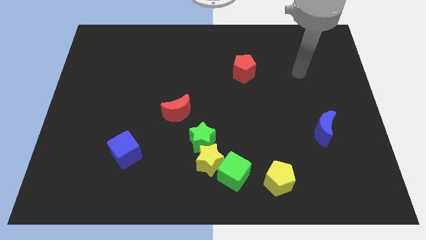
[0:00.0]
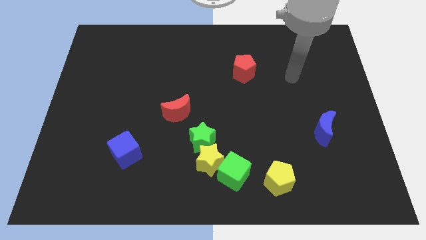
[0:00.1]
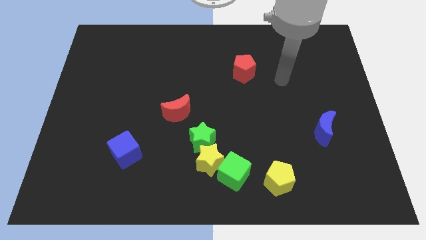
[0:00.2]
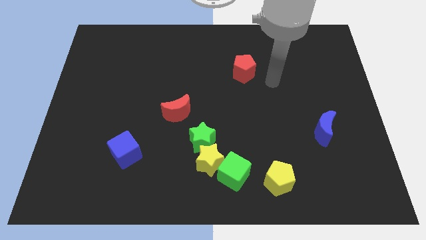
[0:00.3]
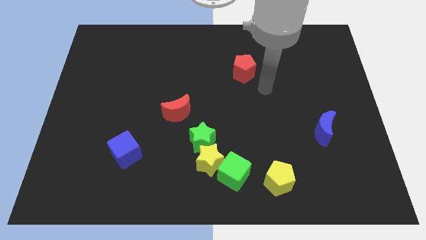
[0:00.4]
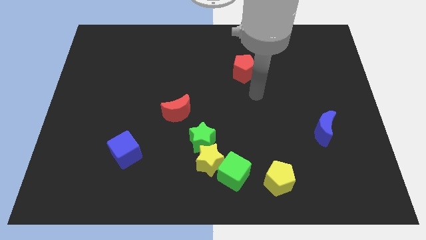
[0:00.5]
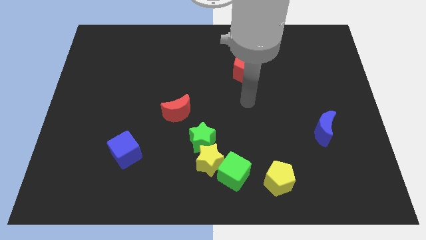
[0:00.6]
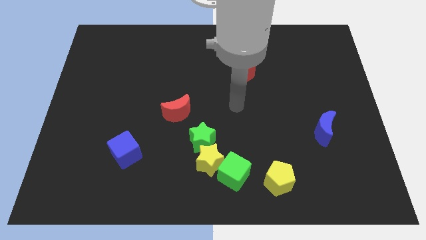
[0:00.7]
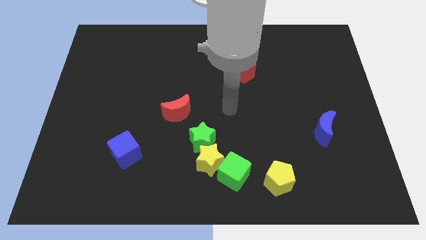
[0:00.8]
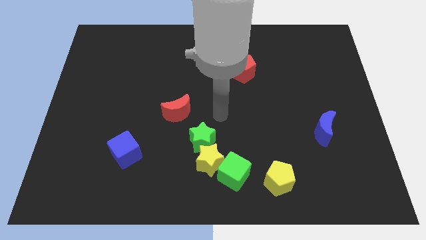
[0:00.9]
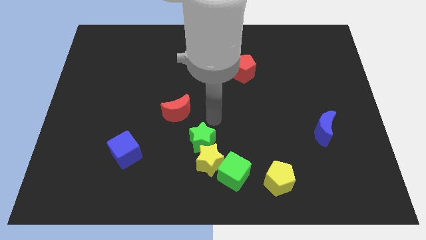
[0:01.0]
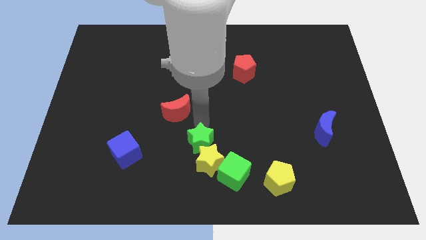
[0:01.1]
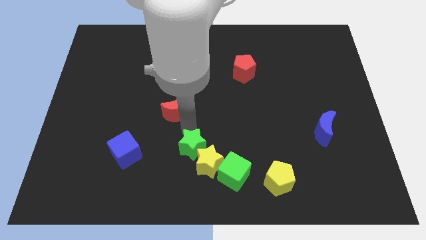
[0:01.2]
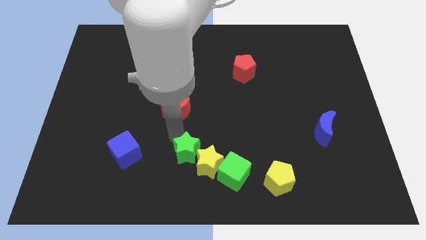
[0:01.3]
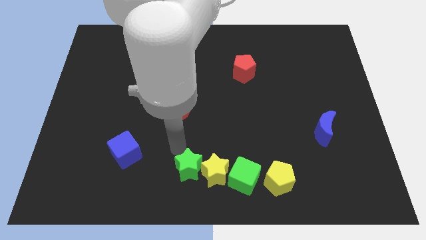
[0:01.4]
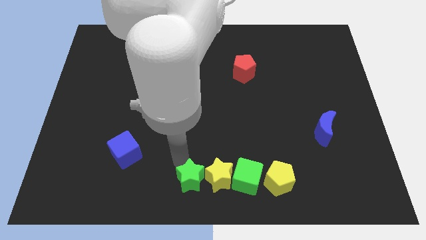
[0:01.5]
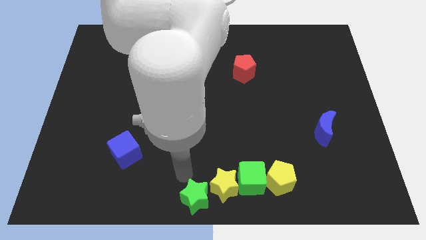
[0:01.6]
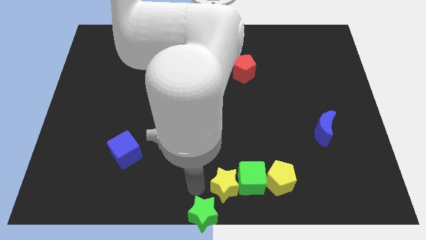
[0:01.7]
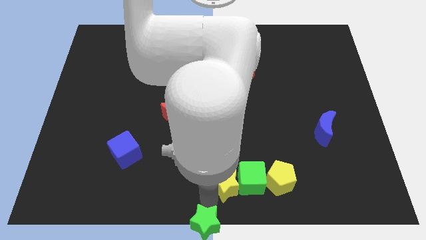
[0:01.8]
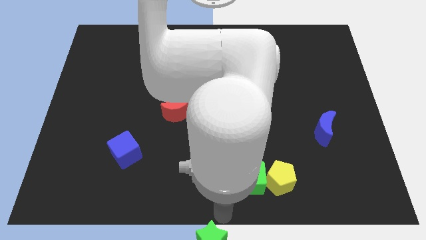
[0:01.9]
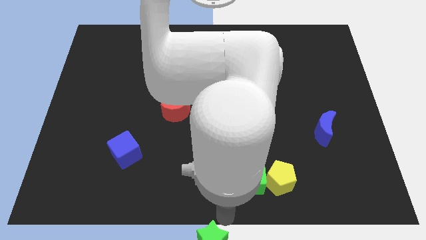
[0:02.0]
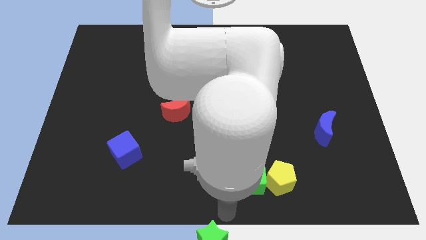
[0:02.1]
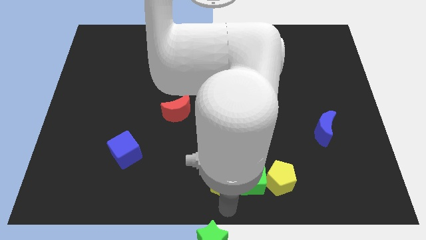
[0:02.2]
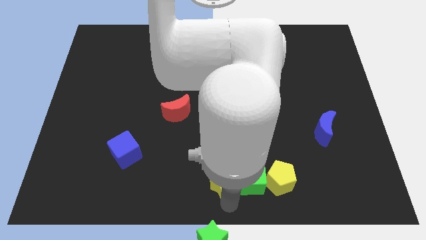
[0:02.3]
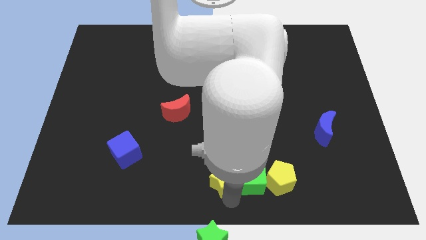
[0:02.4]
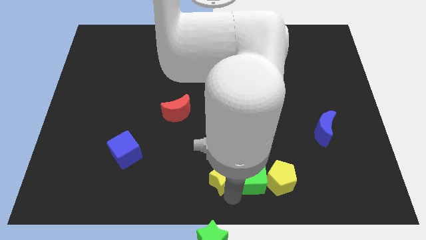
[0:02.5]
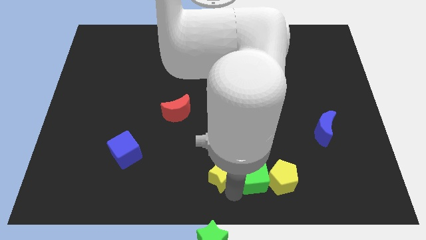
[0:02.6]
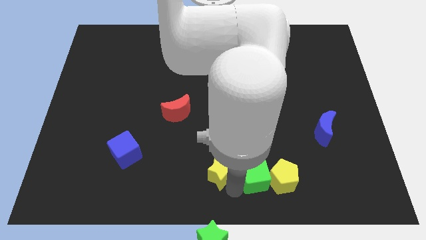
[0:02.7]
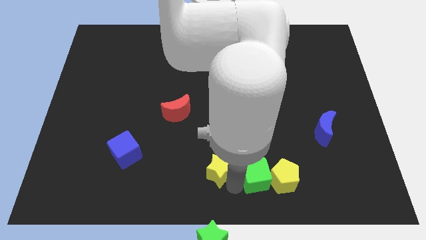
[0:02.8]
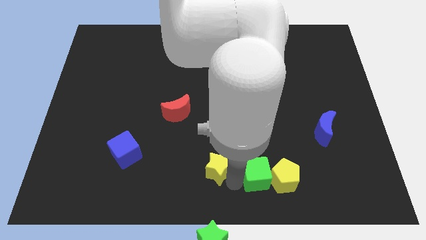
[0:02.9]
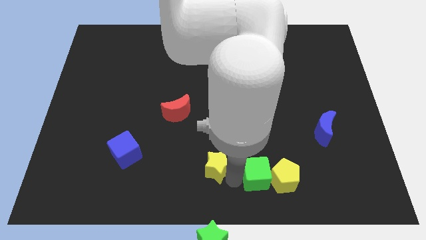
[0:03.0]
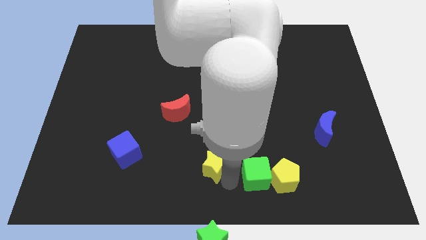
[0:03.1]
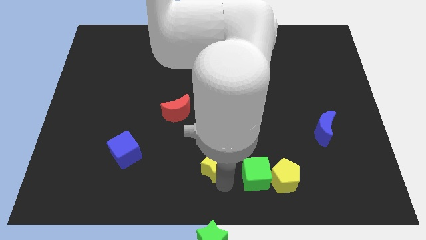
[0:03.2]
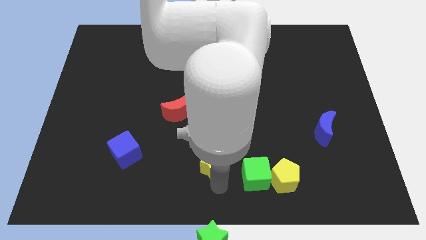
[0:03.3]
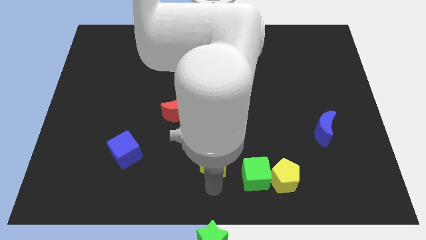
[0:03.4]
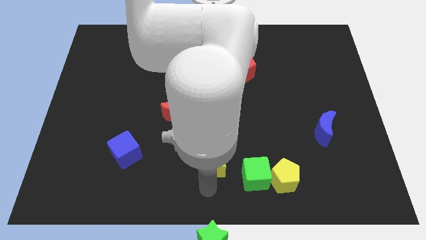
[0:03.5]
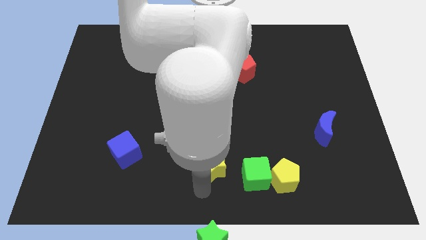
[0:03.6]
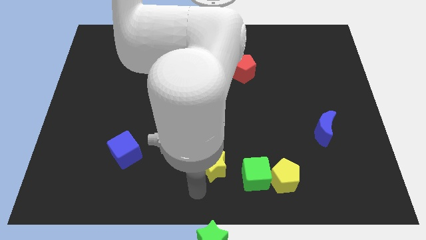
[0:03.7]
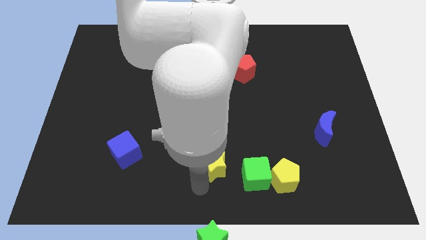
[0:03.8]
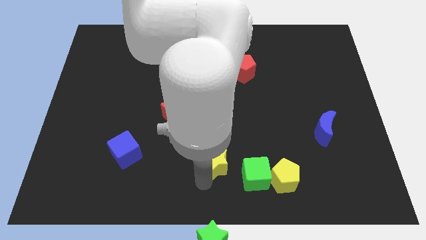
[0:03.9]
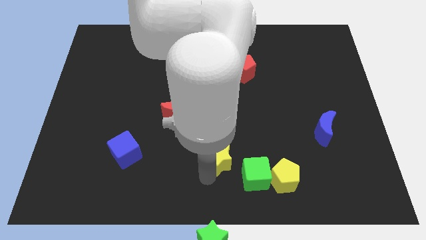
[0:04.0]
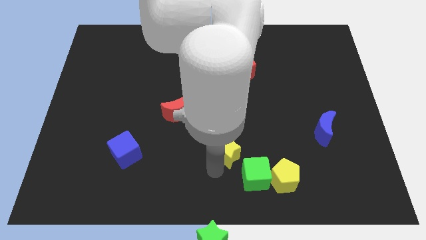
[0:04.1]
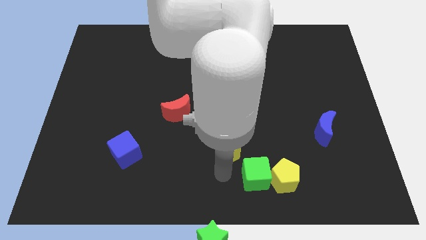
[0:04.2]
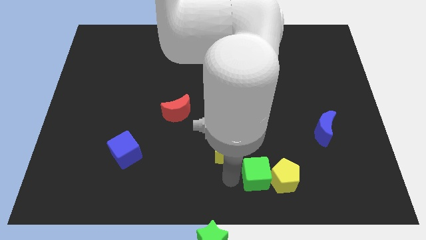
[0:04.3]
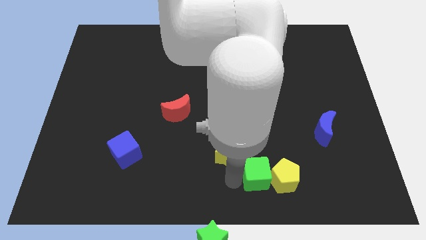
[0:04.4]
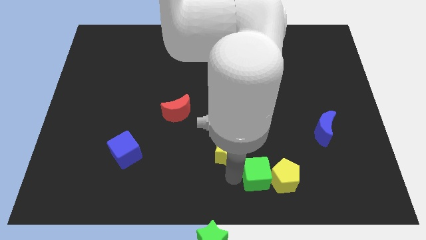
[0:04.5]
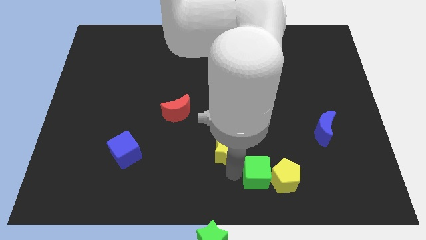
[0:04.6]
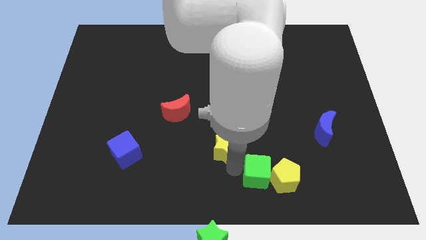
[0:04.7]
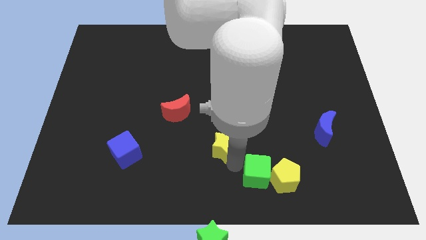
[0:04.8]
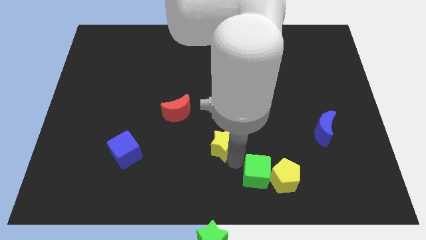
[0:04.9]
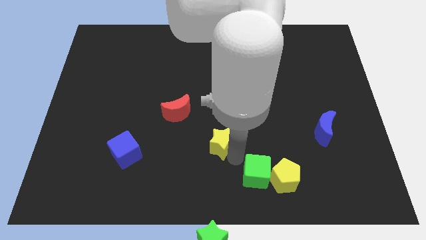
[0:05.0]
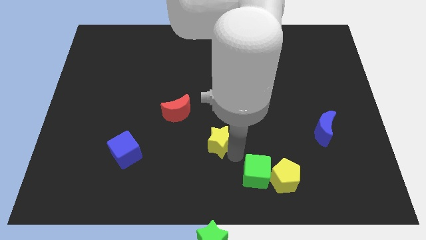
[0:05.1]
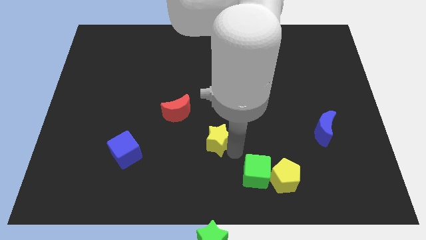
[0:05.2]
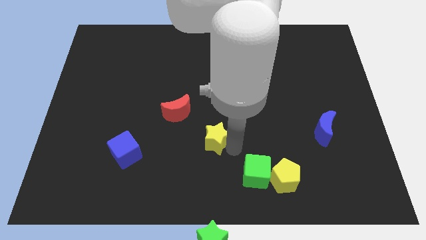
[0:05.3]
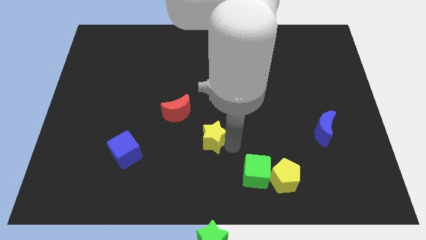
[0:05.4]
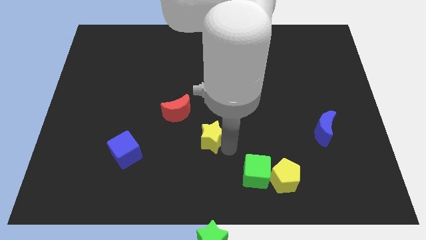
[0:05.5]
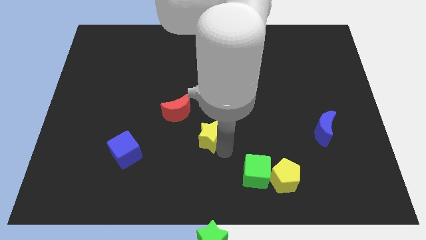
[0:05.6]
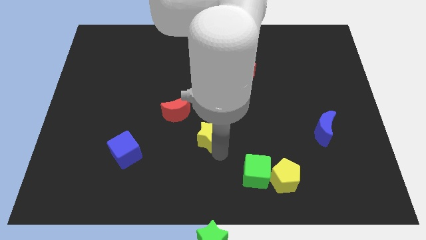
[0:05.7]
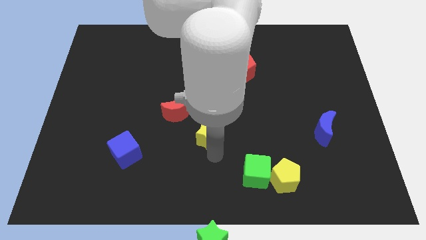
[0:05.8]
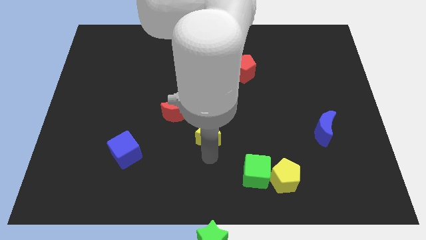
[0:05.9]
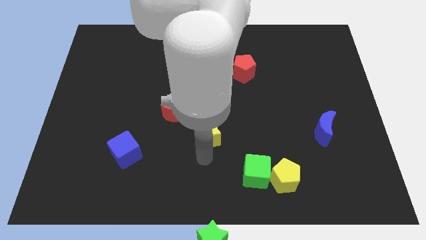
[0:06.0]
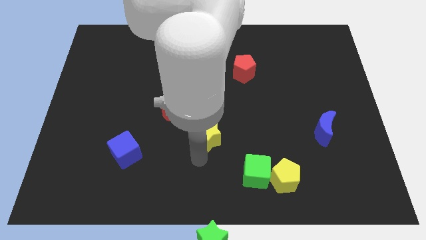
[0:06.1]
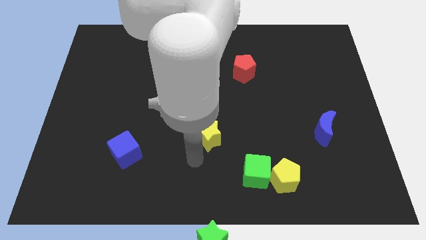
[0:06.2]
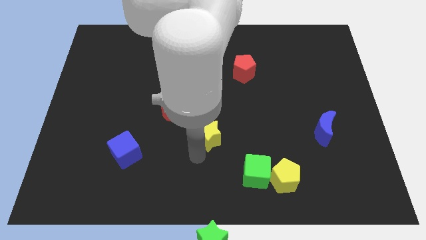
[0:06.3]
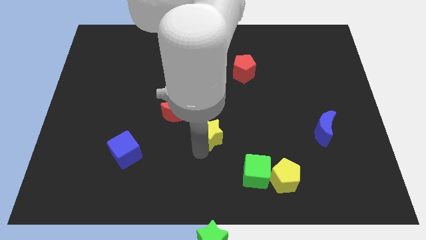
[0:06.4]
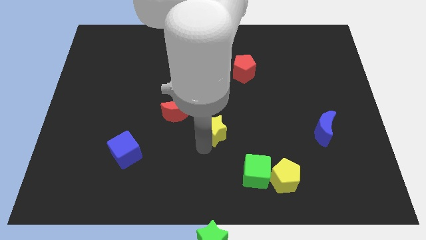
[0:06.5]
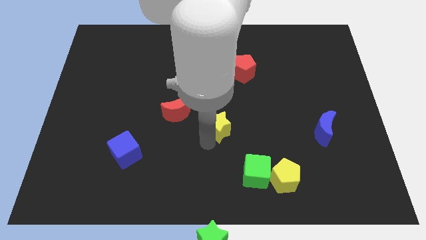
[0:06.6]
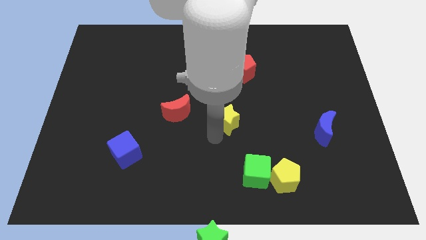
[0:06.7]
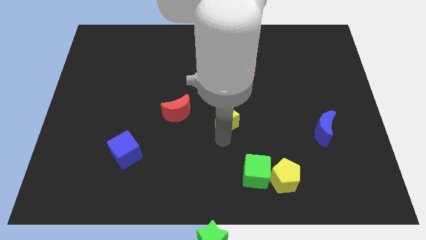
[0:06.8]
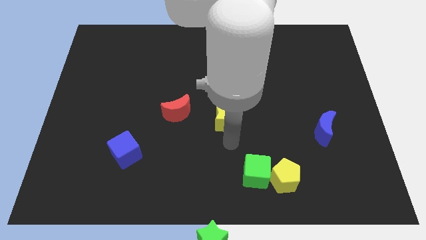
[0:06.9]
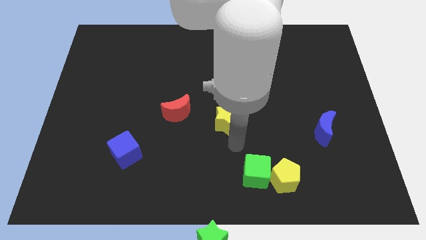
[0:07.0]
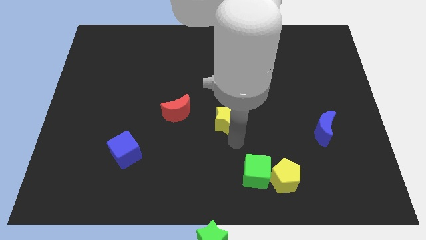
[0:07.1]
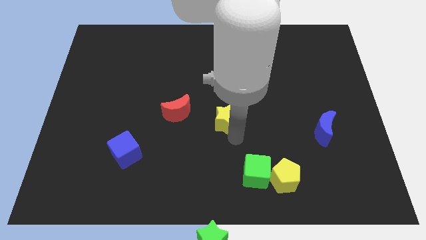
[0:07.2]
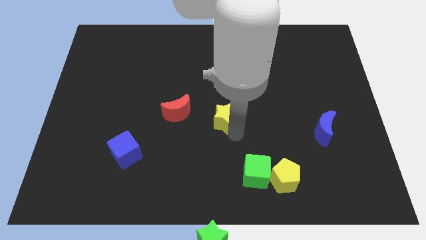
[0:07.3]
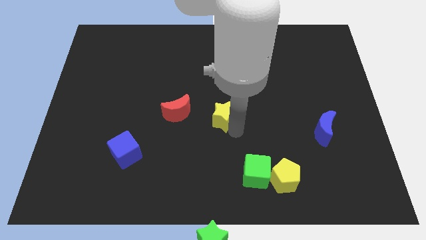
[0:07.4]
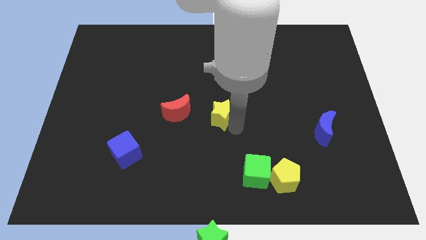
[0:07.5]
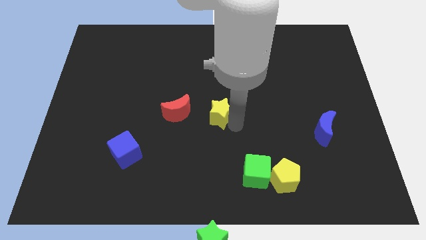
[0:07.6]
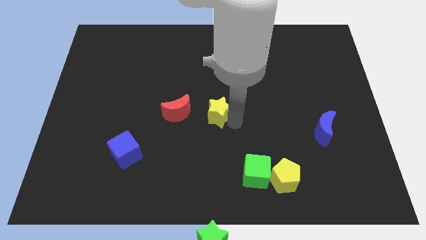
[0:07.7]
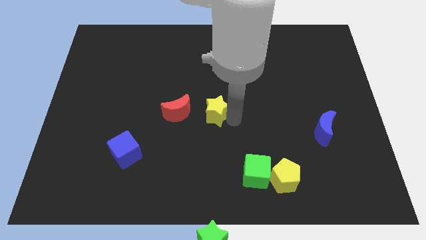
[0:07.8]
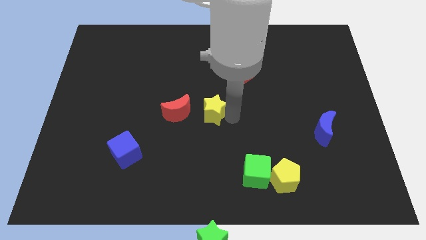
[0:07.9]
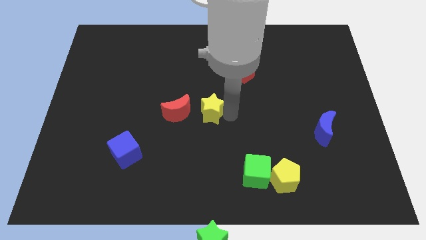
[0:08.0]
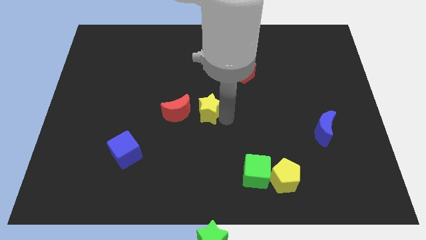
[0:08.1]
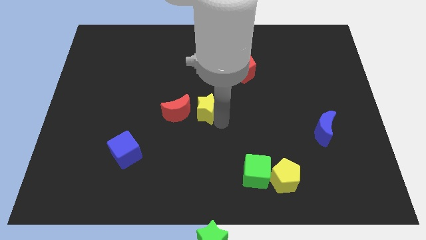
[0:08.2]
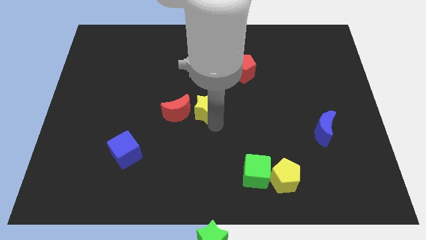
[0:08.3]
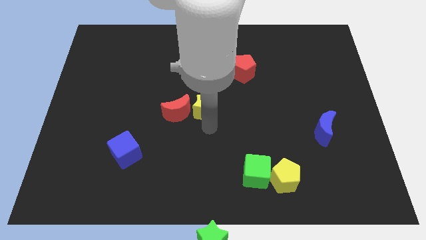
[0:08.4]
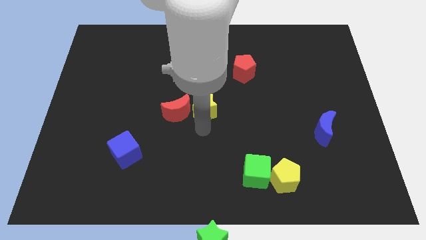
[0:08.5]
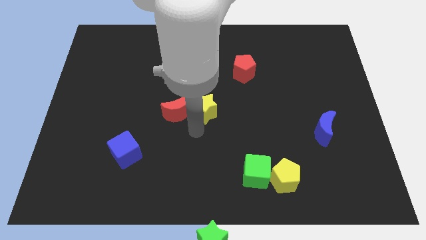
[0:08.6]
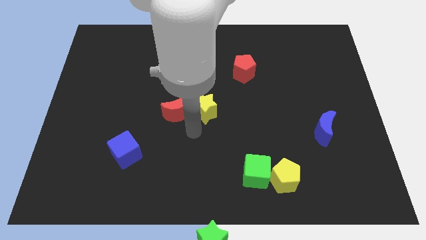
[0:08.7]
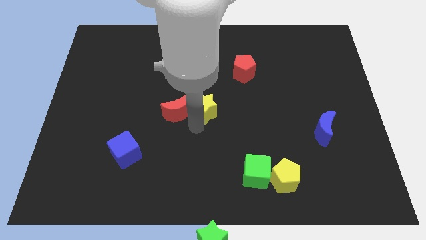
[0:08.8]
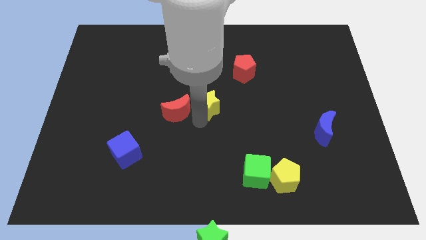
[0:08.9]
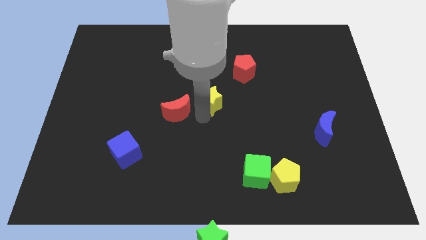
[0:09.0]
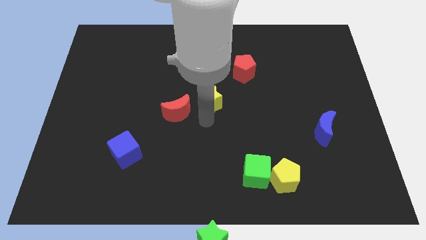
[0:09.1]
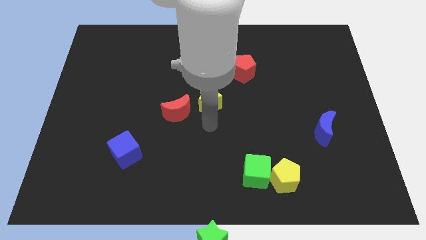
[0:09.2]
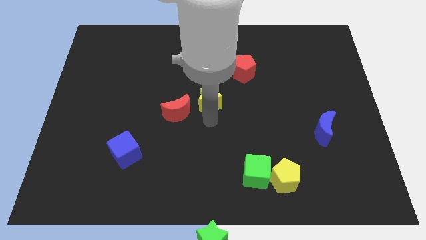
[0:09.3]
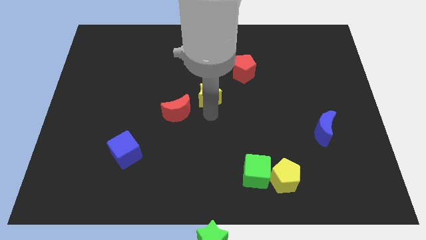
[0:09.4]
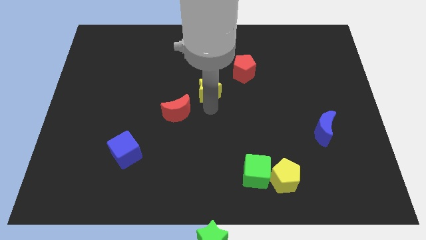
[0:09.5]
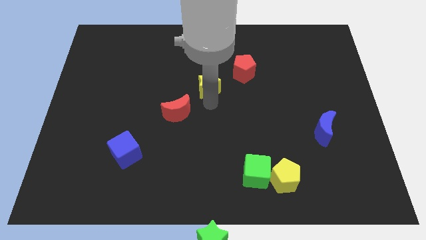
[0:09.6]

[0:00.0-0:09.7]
slide the yellow star upwards
